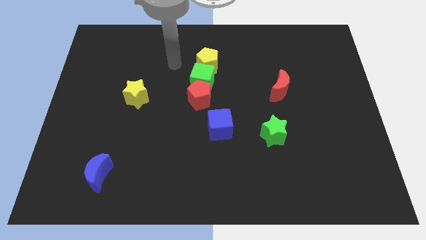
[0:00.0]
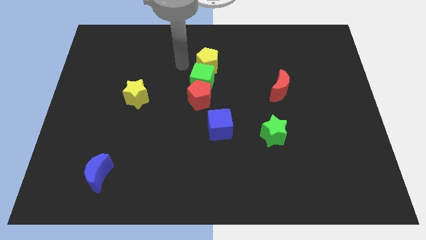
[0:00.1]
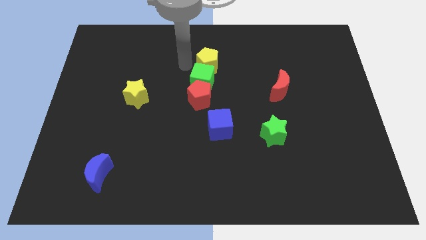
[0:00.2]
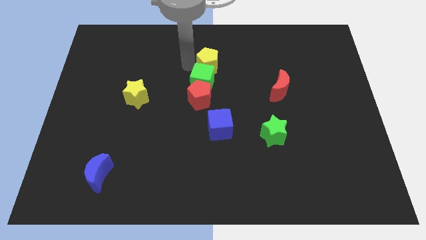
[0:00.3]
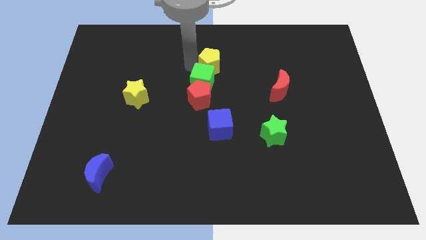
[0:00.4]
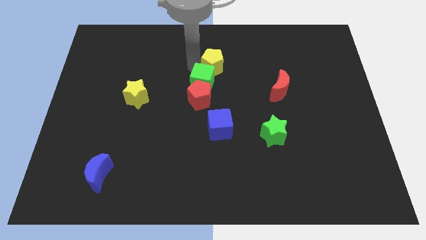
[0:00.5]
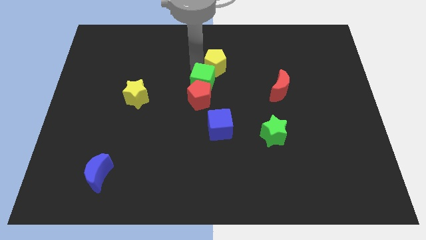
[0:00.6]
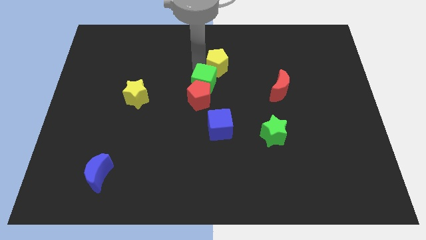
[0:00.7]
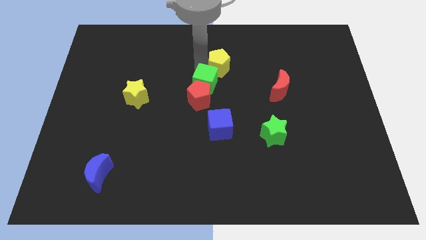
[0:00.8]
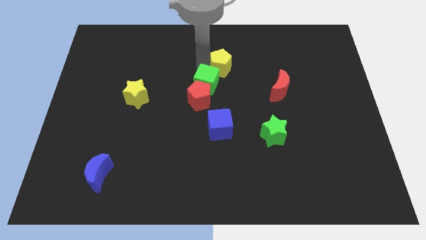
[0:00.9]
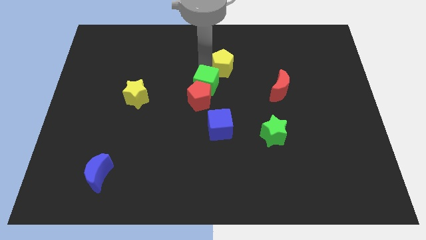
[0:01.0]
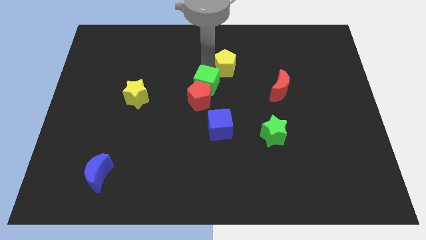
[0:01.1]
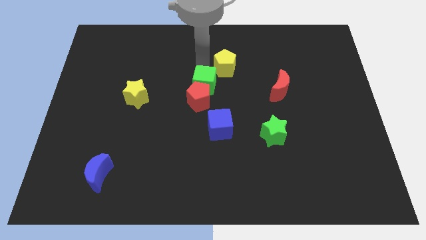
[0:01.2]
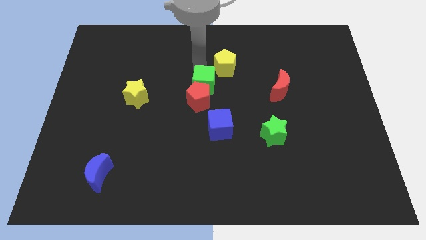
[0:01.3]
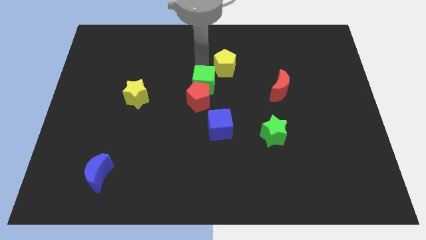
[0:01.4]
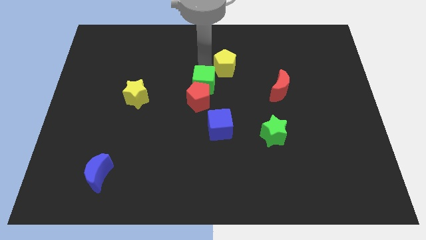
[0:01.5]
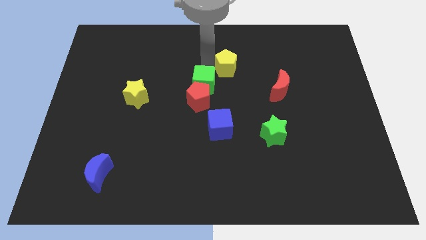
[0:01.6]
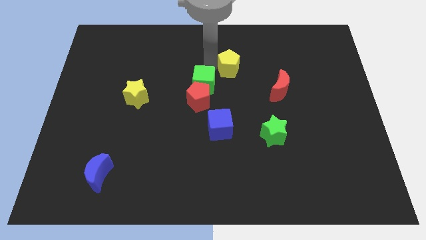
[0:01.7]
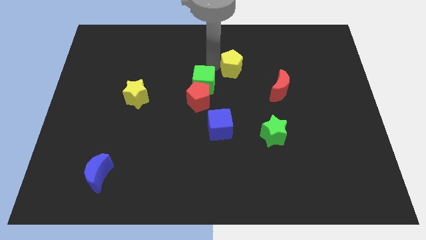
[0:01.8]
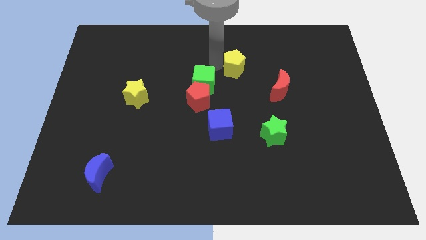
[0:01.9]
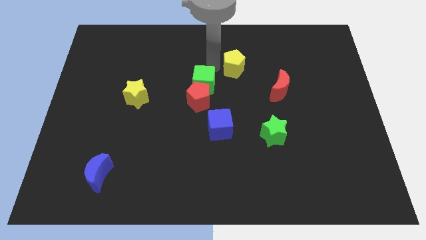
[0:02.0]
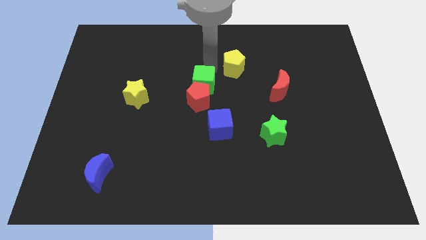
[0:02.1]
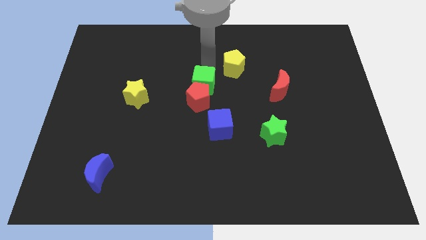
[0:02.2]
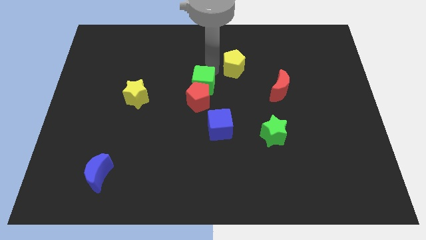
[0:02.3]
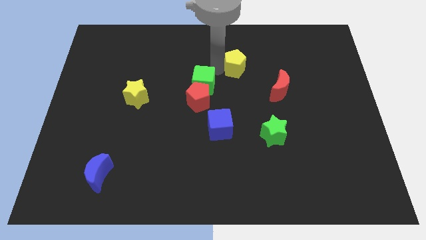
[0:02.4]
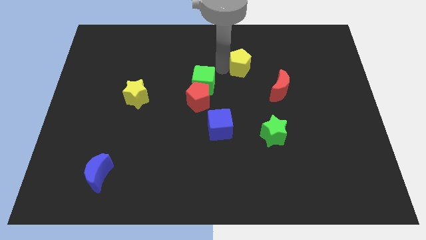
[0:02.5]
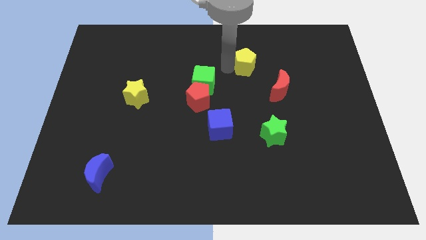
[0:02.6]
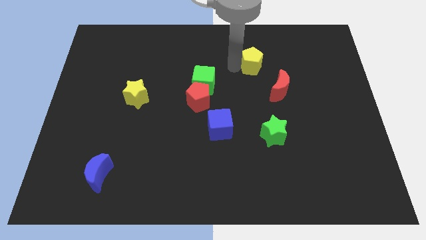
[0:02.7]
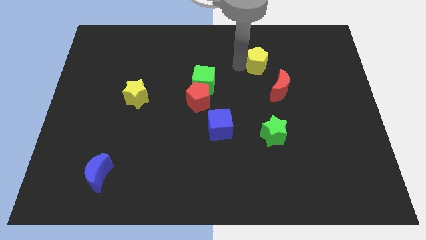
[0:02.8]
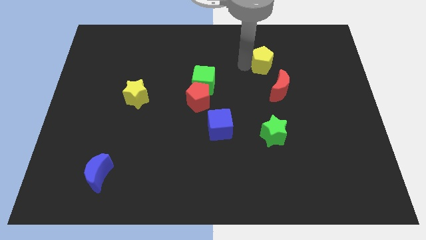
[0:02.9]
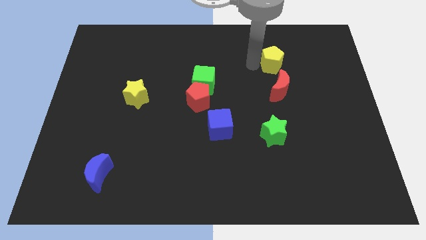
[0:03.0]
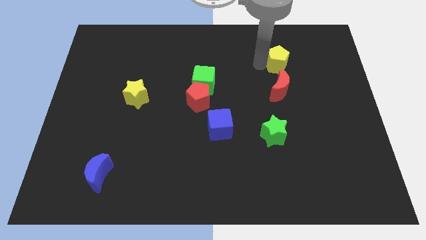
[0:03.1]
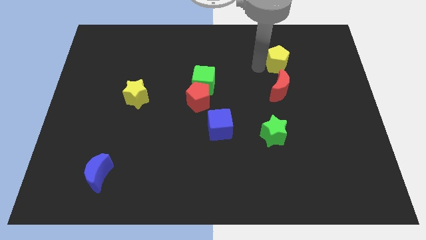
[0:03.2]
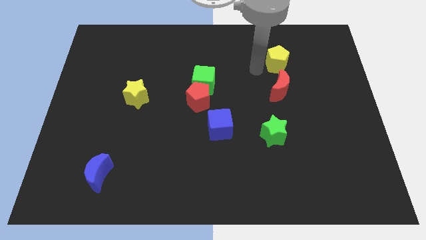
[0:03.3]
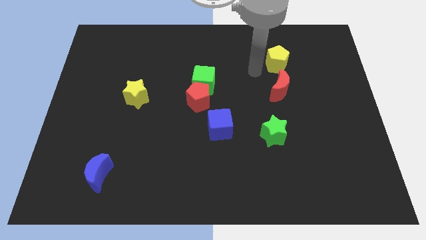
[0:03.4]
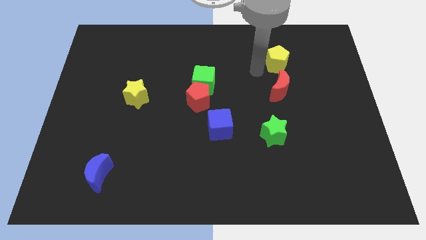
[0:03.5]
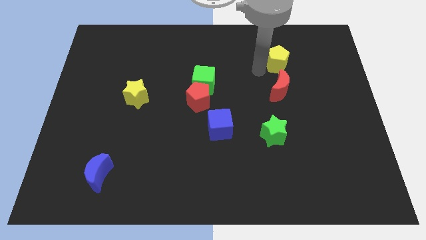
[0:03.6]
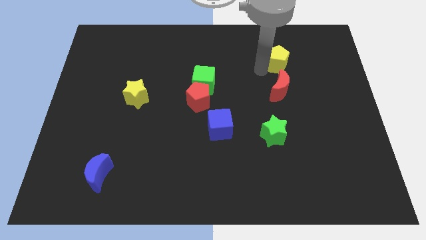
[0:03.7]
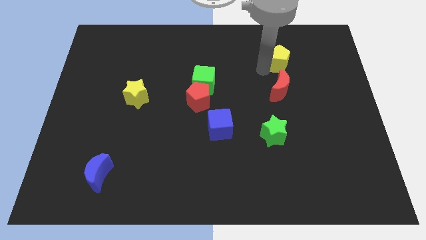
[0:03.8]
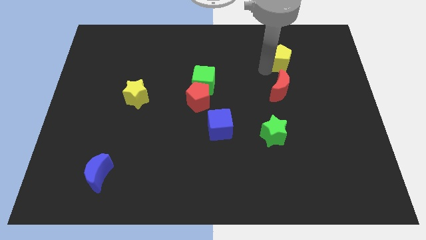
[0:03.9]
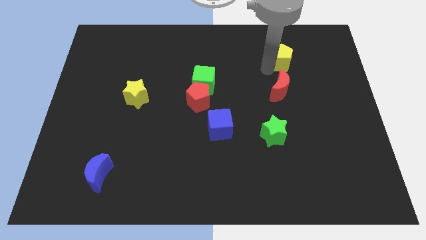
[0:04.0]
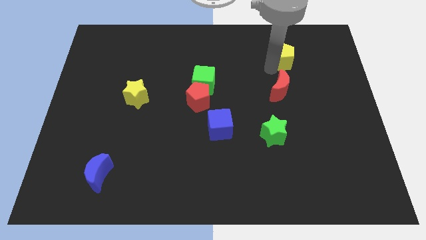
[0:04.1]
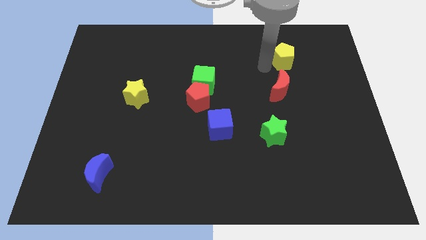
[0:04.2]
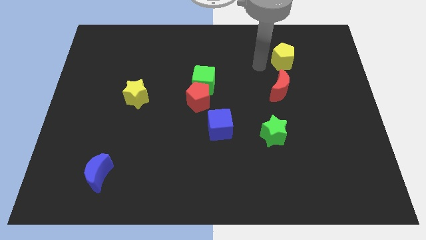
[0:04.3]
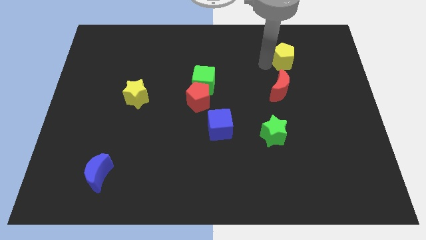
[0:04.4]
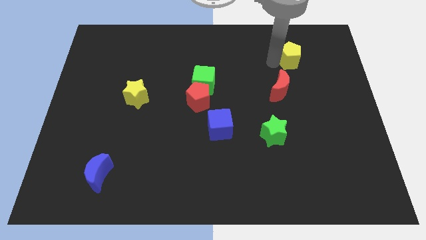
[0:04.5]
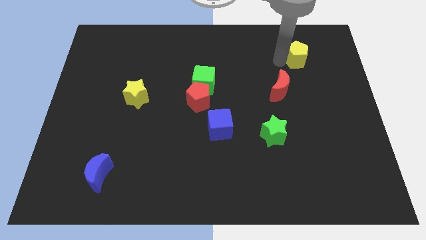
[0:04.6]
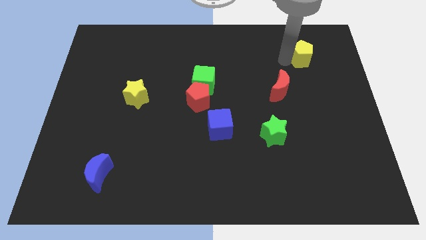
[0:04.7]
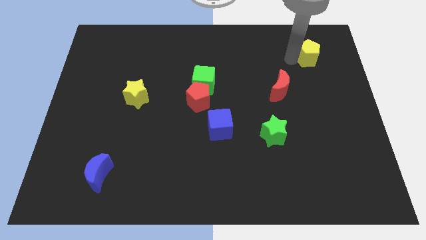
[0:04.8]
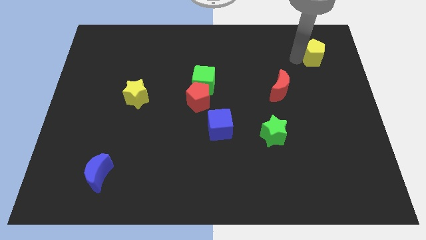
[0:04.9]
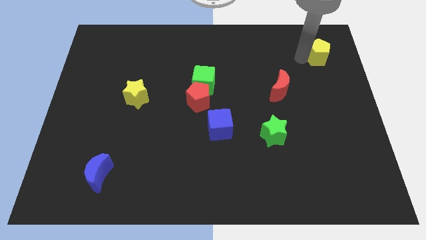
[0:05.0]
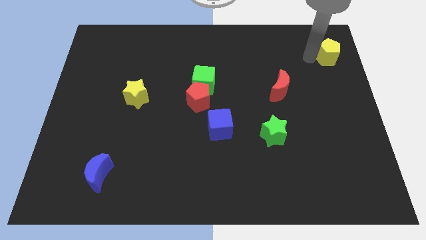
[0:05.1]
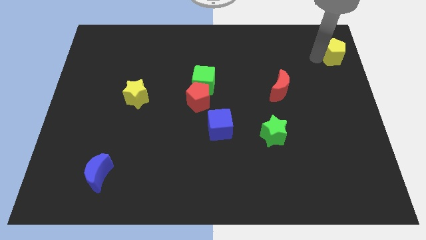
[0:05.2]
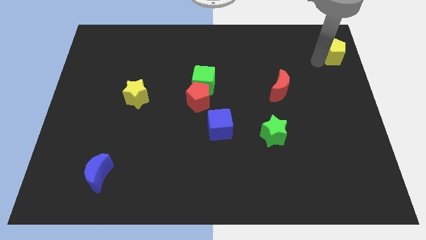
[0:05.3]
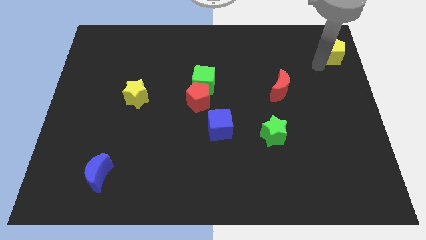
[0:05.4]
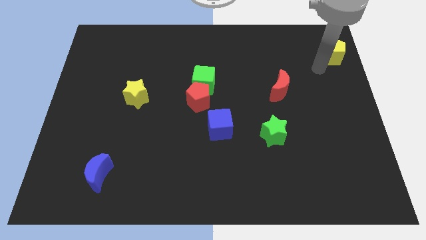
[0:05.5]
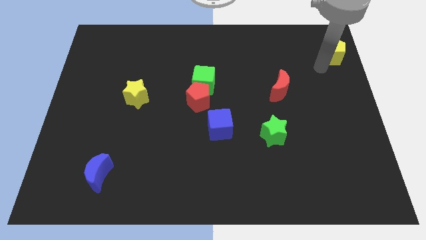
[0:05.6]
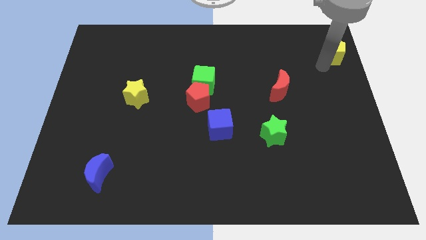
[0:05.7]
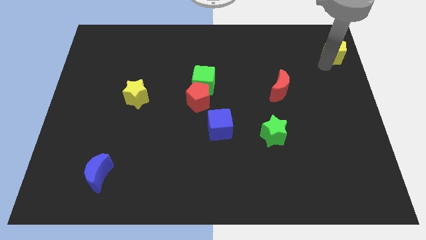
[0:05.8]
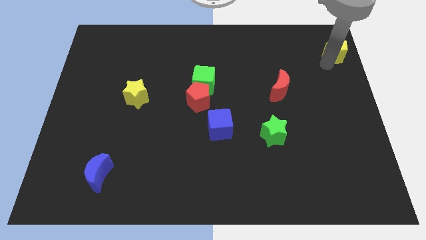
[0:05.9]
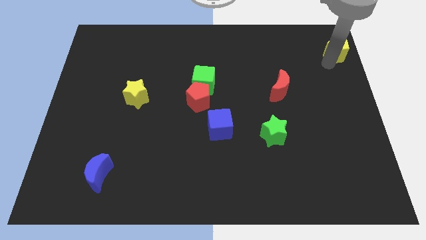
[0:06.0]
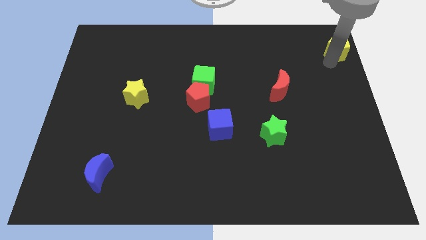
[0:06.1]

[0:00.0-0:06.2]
put the yellow pentagon to the upper right corner
